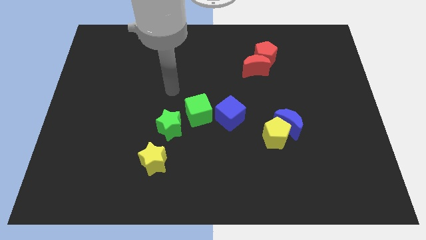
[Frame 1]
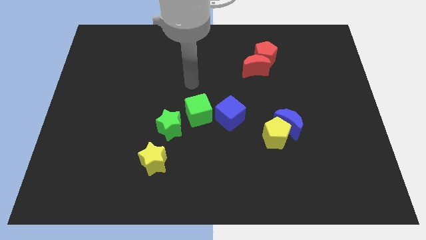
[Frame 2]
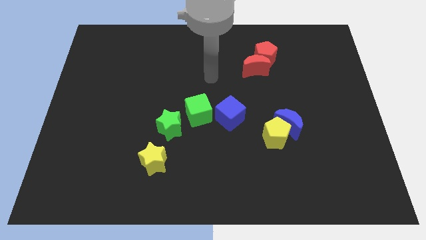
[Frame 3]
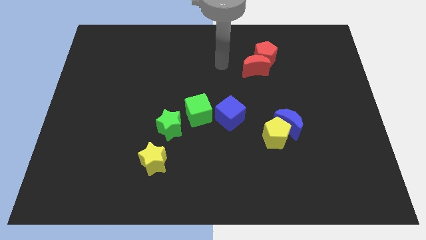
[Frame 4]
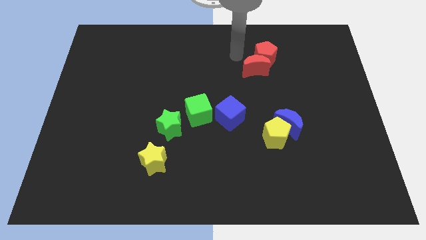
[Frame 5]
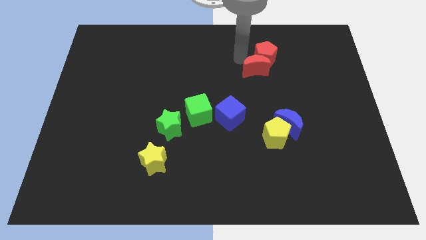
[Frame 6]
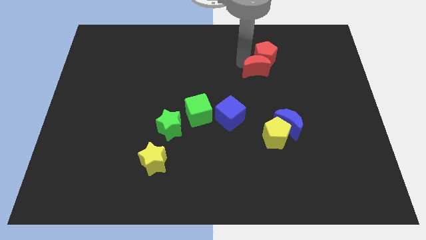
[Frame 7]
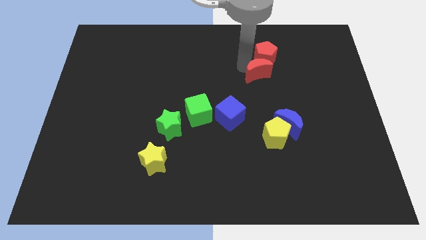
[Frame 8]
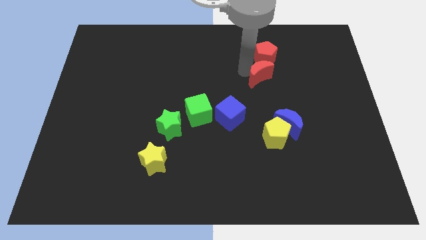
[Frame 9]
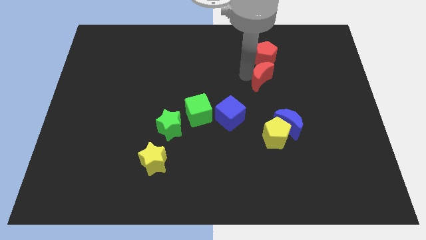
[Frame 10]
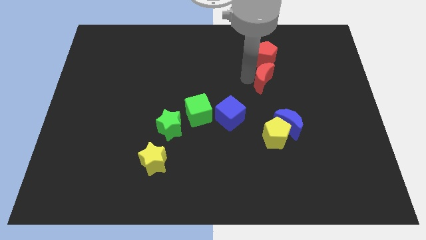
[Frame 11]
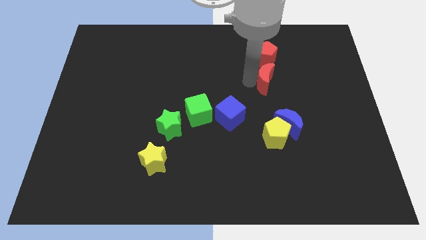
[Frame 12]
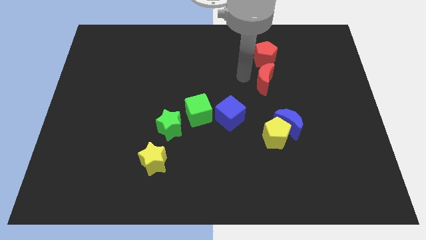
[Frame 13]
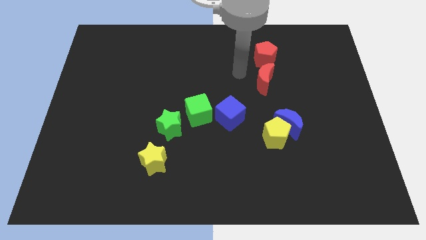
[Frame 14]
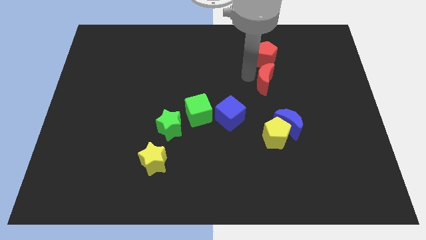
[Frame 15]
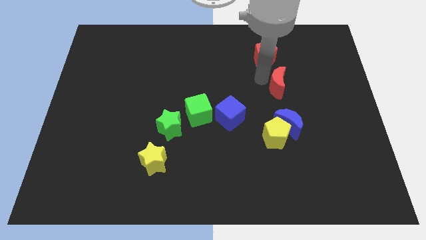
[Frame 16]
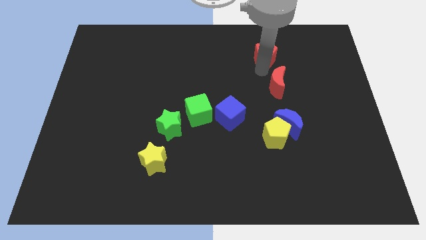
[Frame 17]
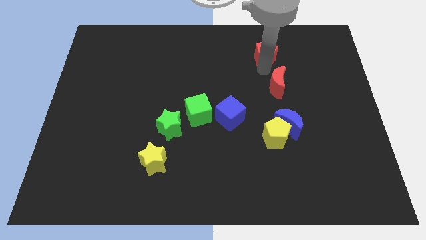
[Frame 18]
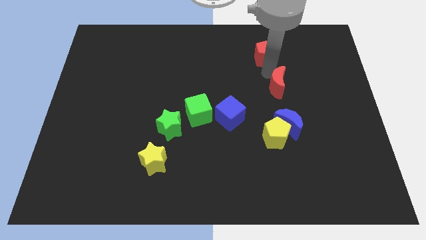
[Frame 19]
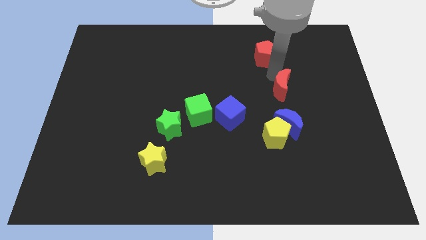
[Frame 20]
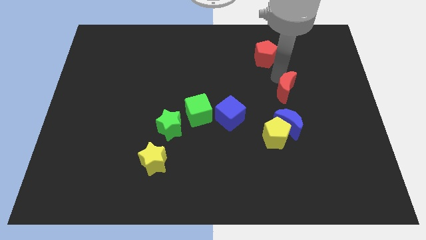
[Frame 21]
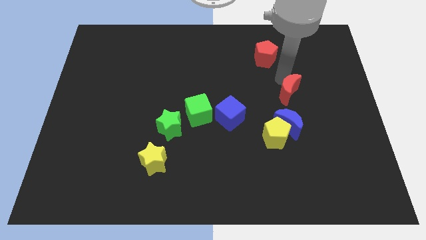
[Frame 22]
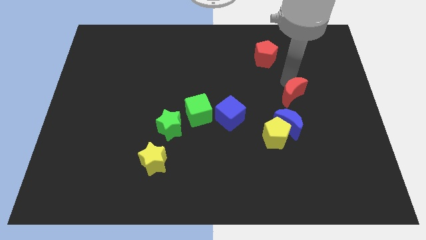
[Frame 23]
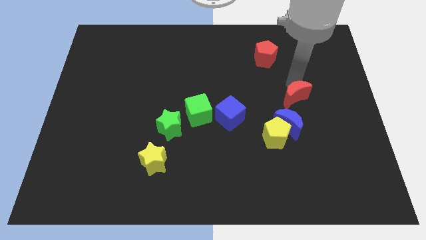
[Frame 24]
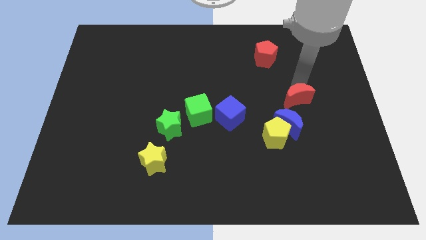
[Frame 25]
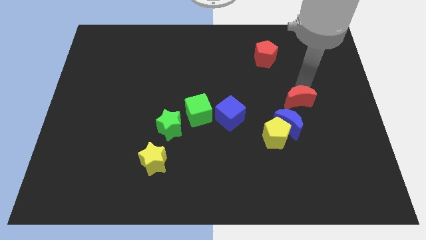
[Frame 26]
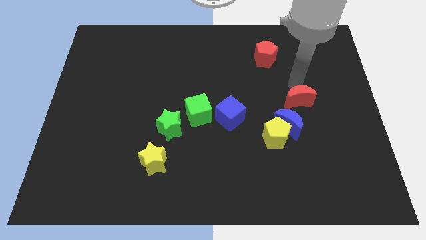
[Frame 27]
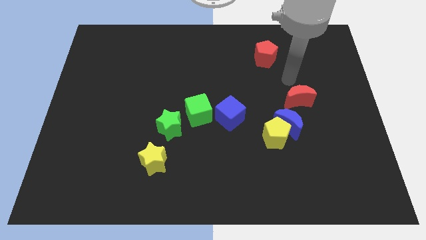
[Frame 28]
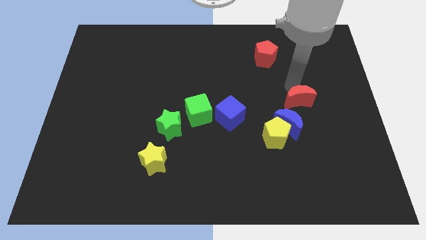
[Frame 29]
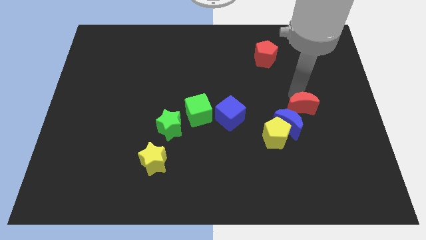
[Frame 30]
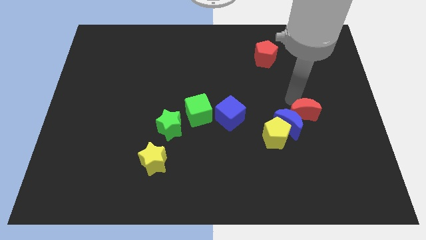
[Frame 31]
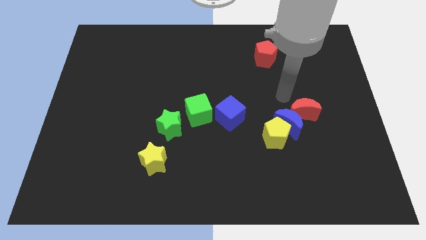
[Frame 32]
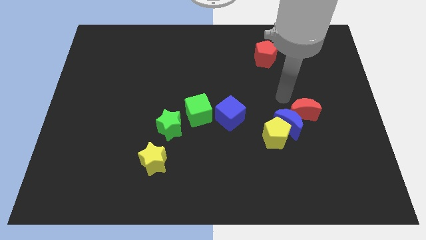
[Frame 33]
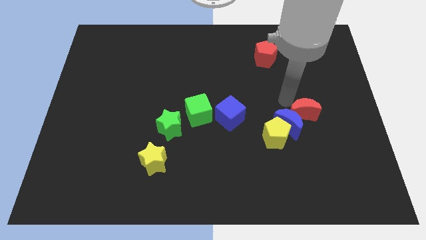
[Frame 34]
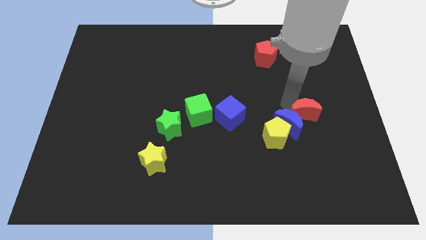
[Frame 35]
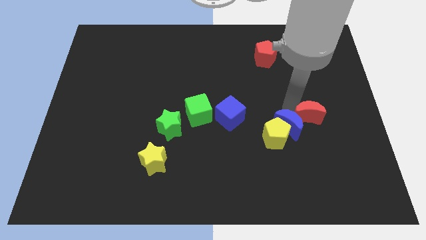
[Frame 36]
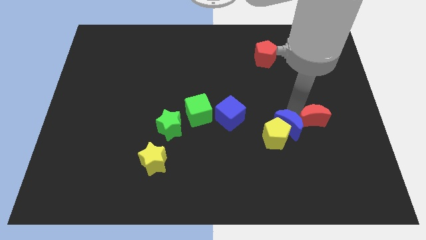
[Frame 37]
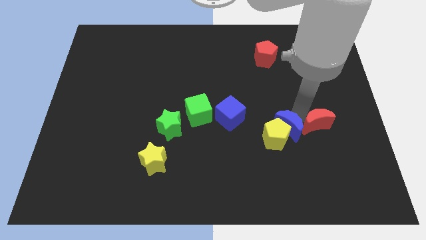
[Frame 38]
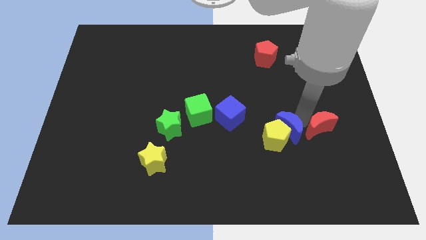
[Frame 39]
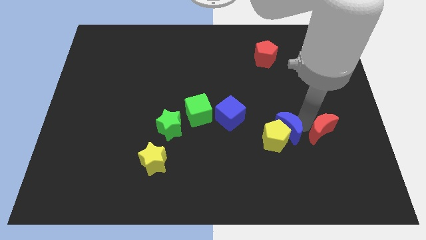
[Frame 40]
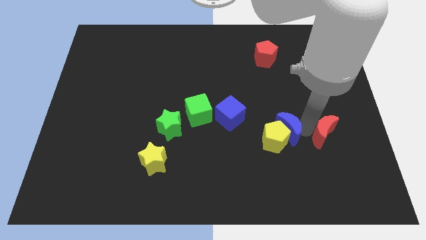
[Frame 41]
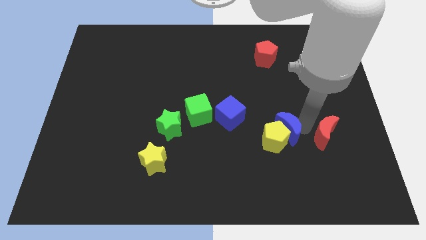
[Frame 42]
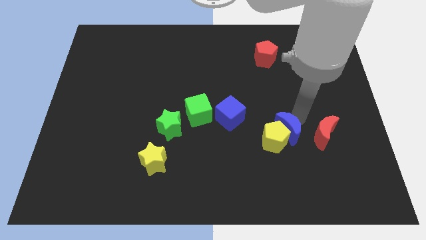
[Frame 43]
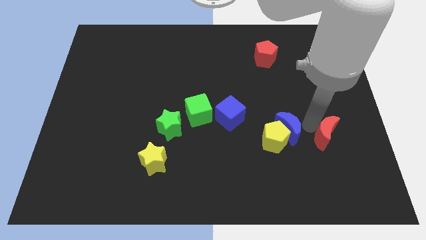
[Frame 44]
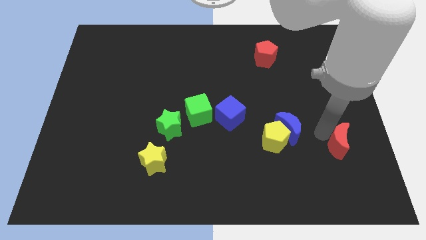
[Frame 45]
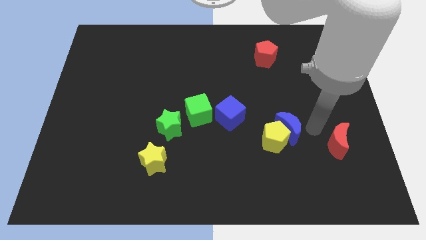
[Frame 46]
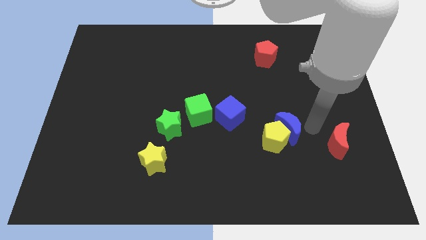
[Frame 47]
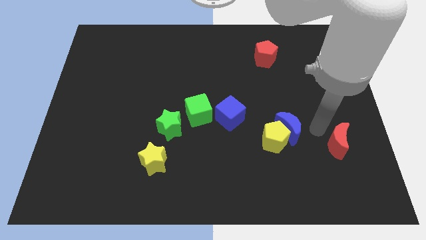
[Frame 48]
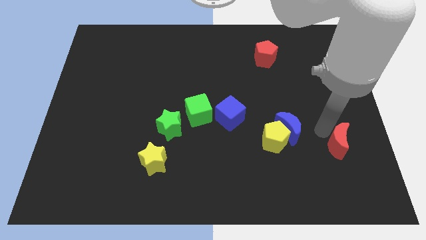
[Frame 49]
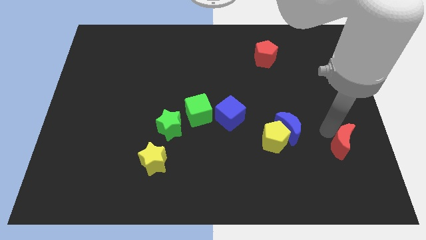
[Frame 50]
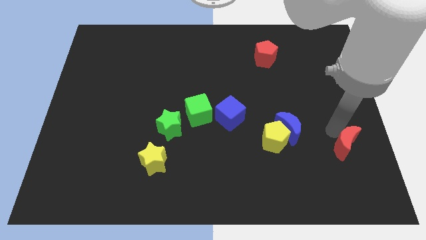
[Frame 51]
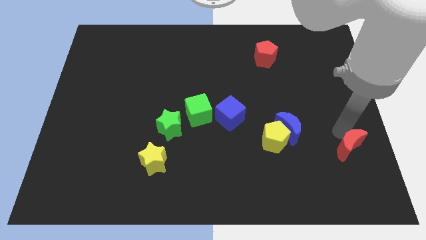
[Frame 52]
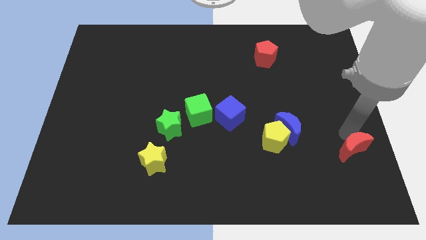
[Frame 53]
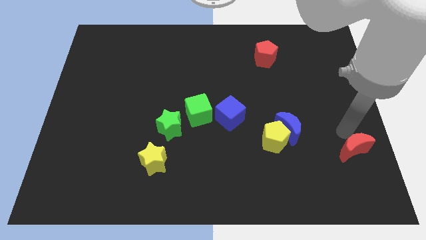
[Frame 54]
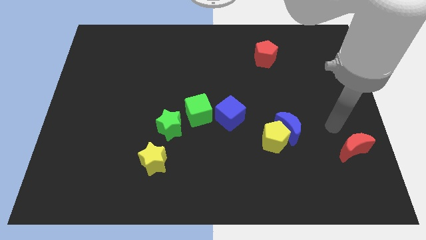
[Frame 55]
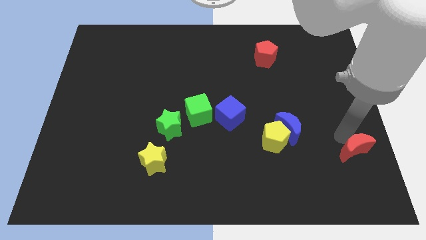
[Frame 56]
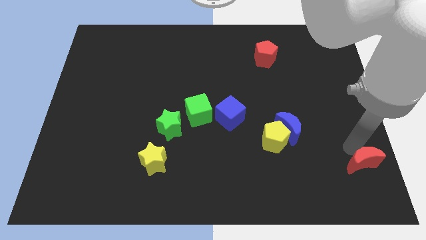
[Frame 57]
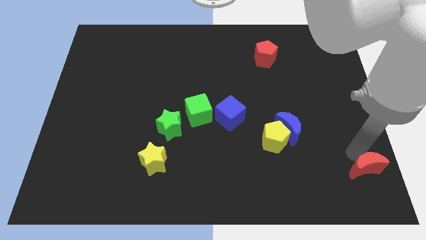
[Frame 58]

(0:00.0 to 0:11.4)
slide the red moon to the lower right corner

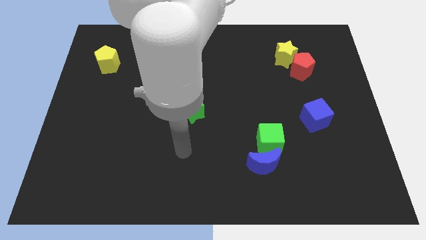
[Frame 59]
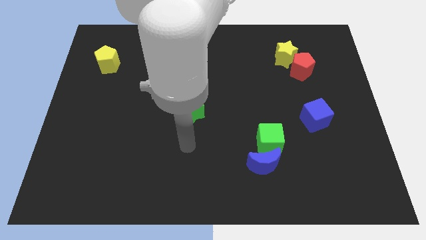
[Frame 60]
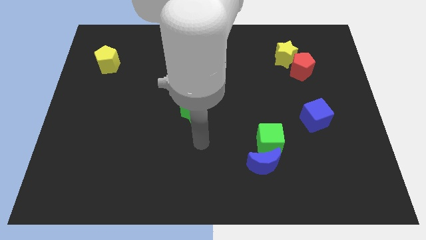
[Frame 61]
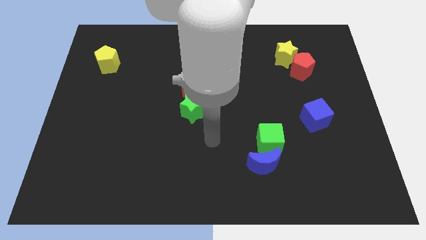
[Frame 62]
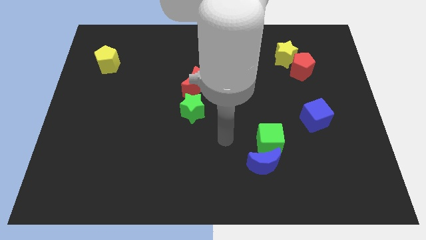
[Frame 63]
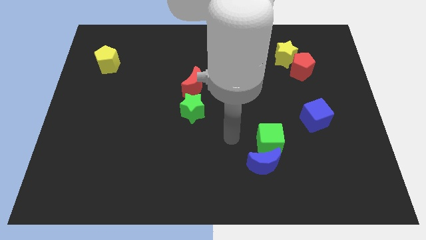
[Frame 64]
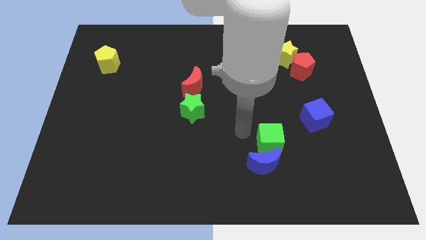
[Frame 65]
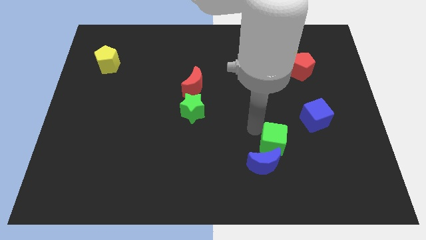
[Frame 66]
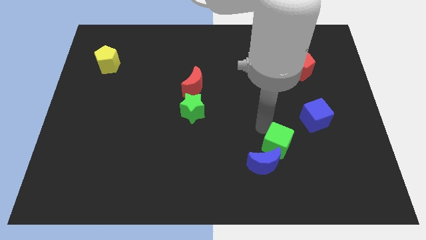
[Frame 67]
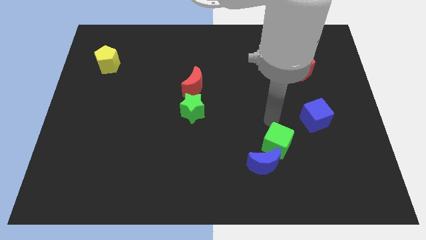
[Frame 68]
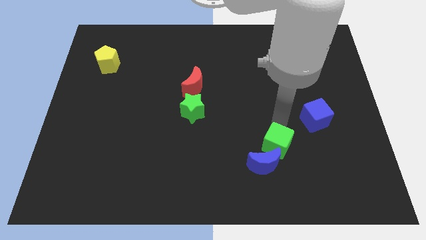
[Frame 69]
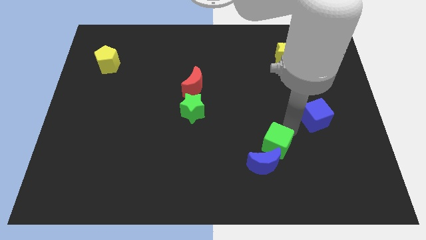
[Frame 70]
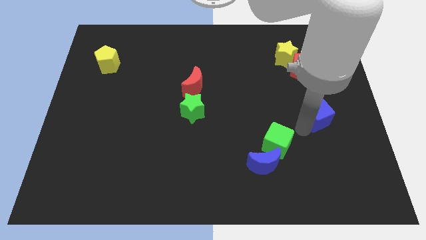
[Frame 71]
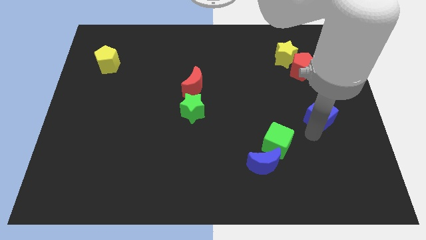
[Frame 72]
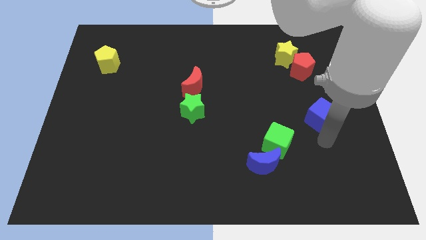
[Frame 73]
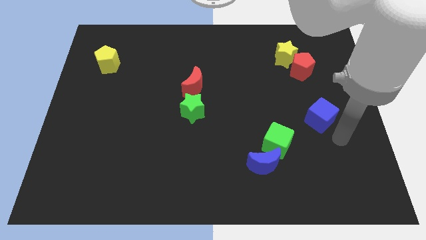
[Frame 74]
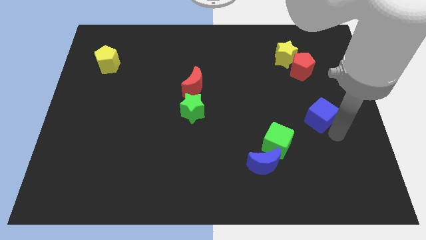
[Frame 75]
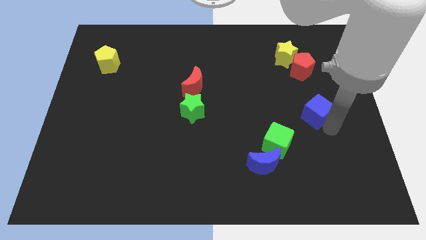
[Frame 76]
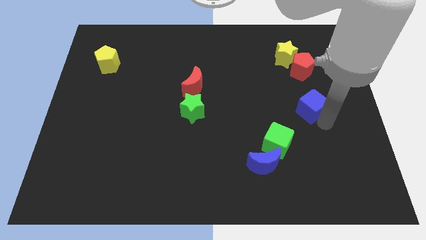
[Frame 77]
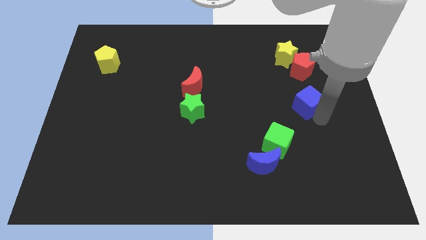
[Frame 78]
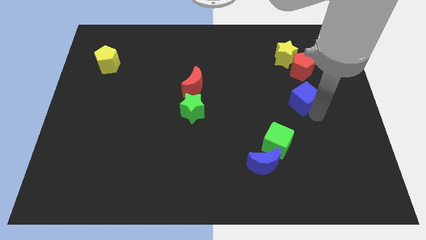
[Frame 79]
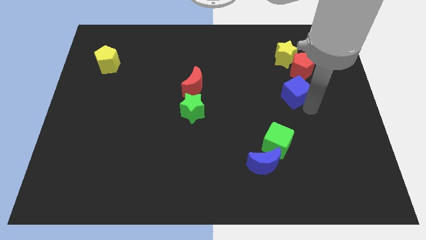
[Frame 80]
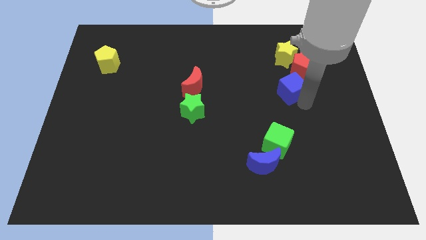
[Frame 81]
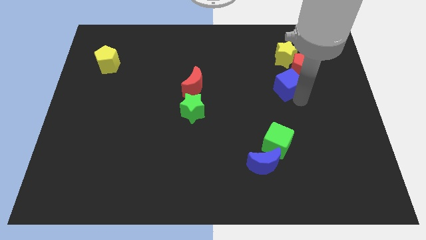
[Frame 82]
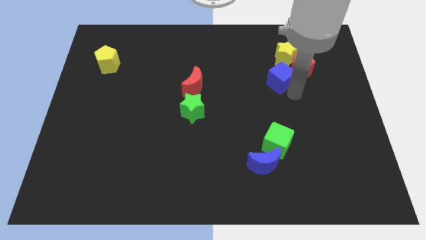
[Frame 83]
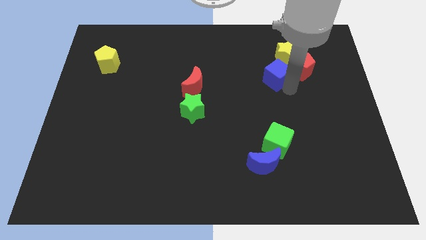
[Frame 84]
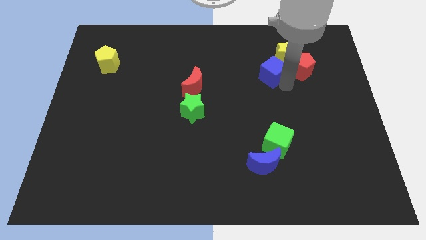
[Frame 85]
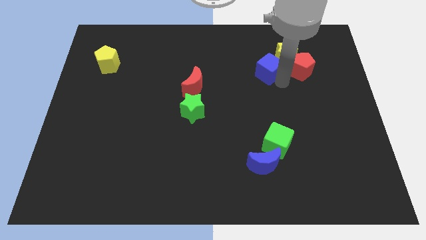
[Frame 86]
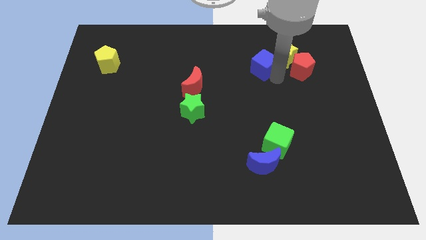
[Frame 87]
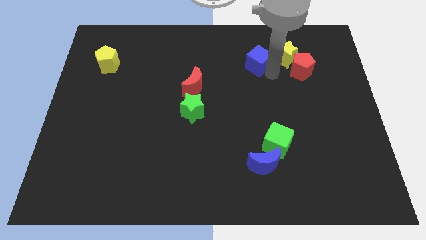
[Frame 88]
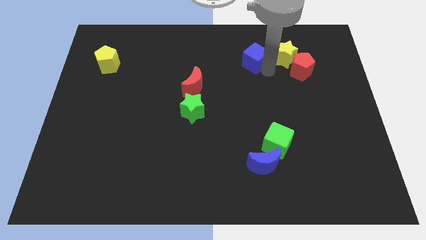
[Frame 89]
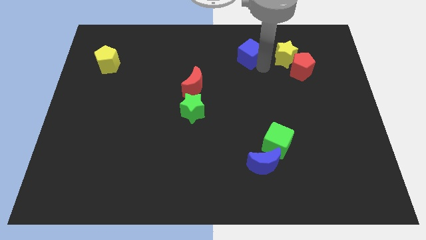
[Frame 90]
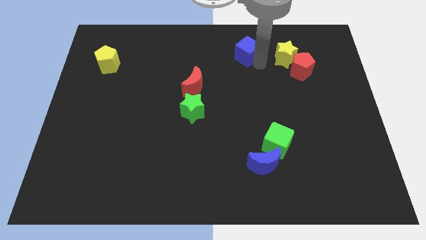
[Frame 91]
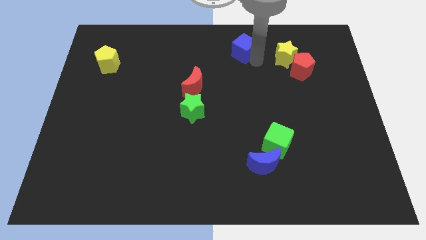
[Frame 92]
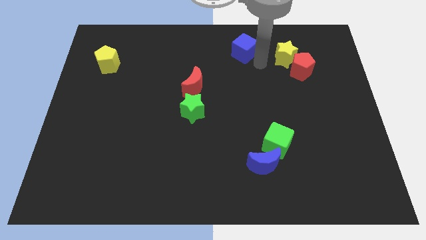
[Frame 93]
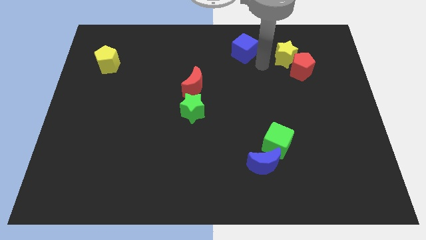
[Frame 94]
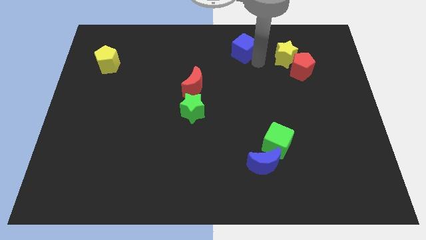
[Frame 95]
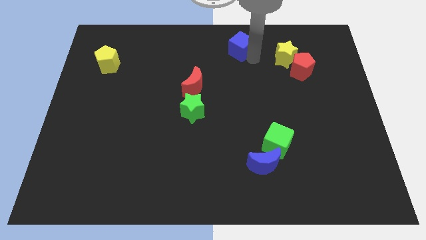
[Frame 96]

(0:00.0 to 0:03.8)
push the blue cube to the towards your base
